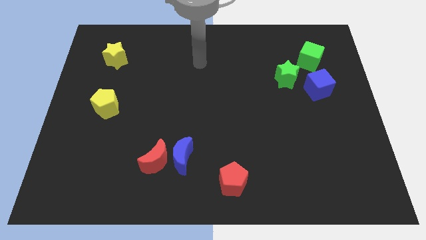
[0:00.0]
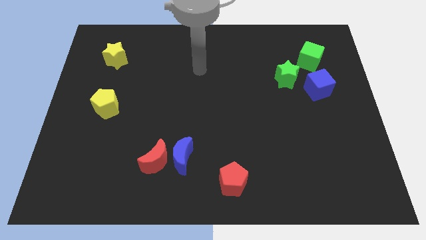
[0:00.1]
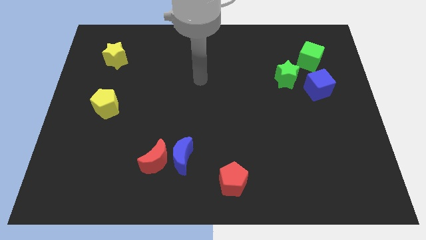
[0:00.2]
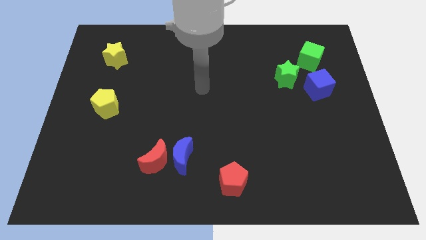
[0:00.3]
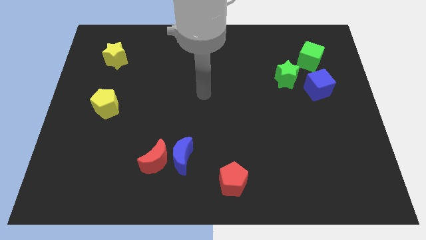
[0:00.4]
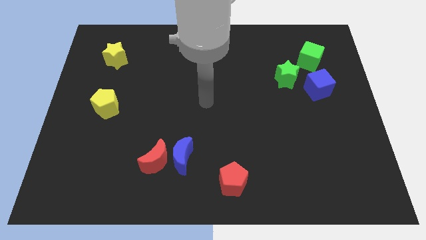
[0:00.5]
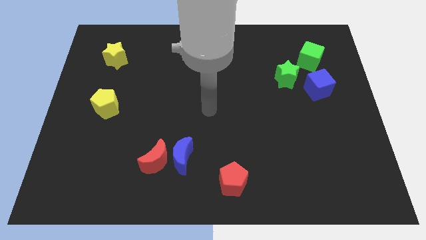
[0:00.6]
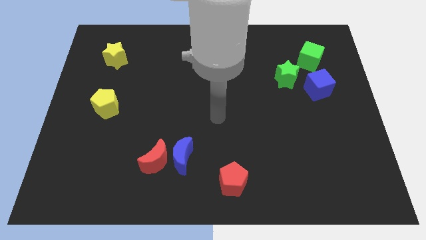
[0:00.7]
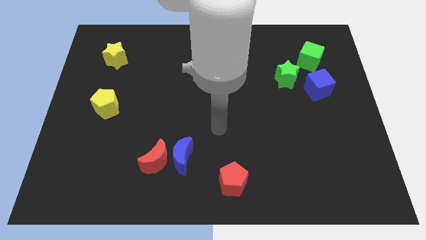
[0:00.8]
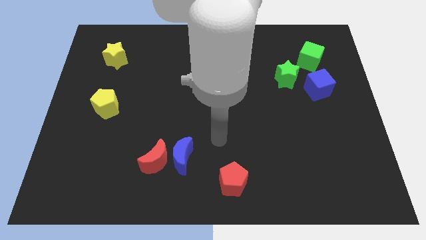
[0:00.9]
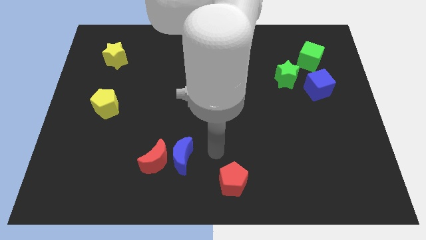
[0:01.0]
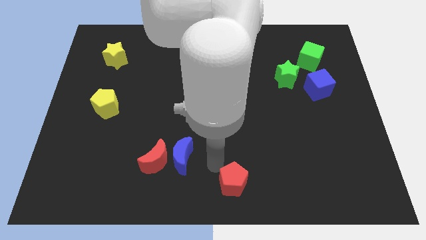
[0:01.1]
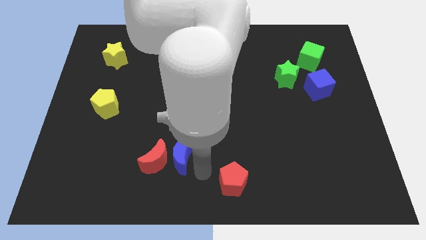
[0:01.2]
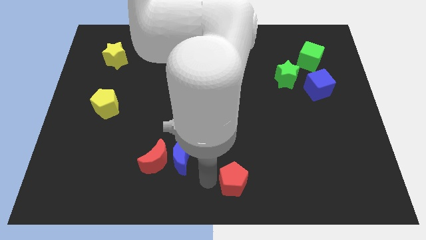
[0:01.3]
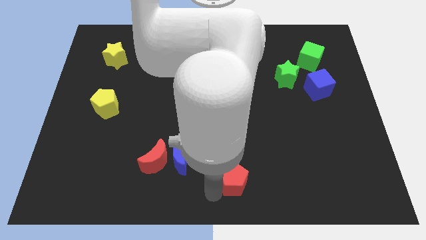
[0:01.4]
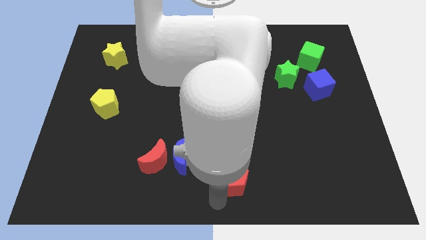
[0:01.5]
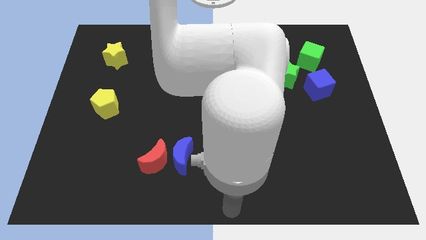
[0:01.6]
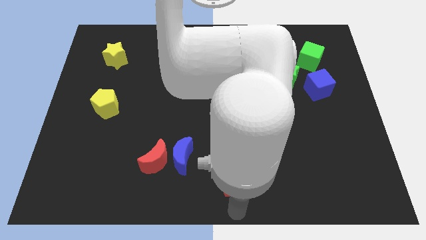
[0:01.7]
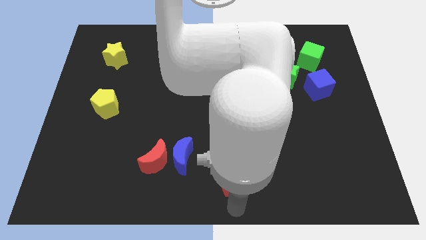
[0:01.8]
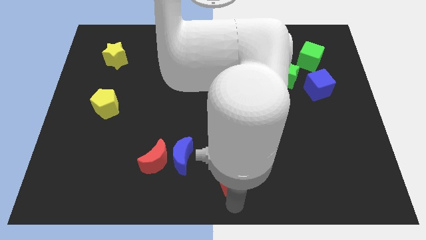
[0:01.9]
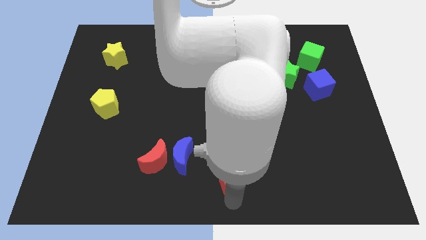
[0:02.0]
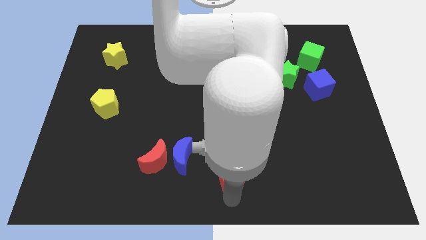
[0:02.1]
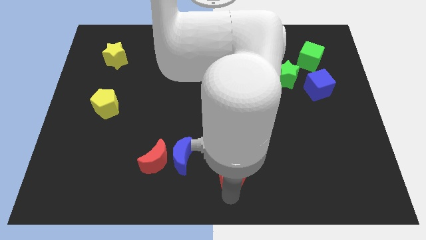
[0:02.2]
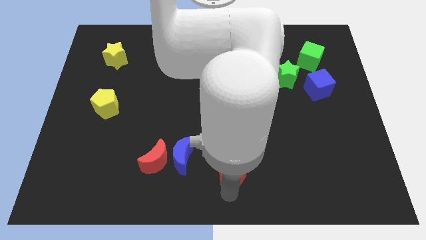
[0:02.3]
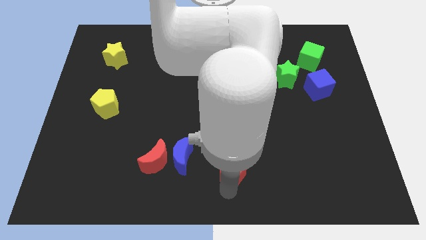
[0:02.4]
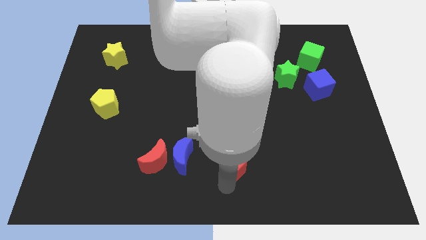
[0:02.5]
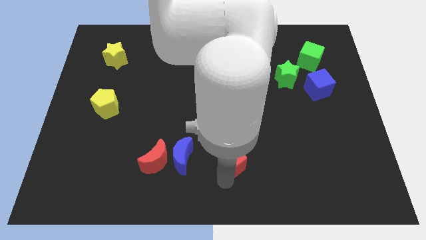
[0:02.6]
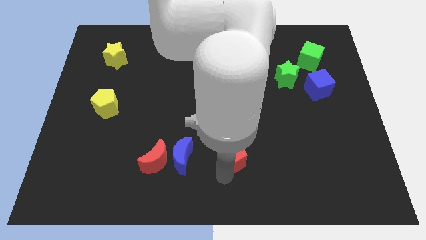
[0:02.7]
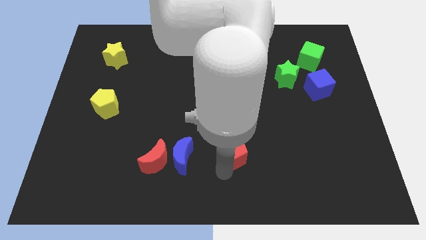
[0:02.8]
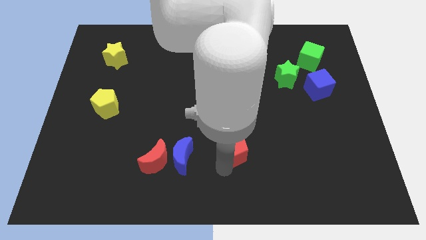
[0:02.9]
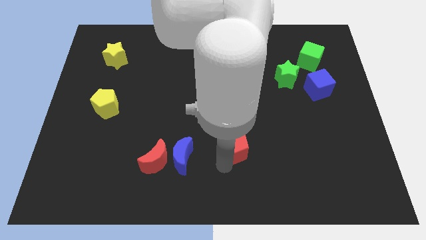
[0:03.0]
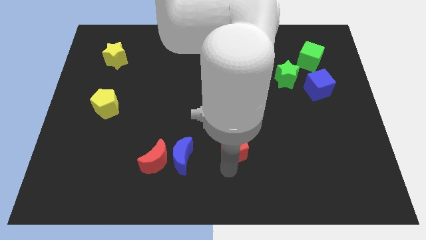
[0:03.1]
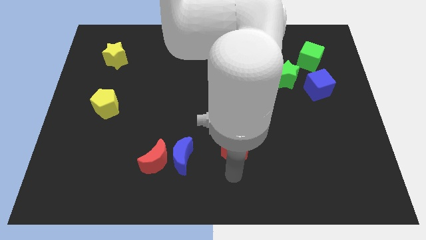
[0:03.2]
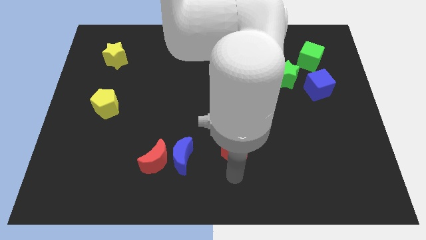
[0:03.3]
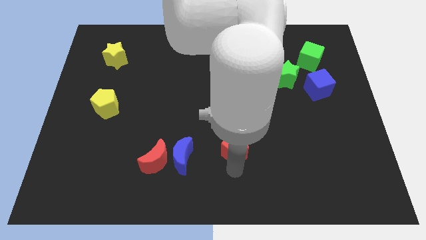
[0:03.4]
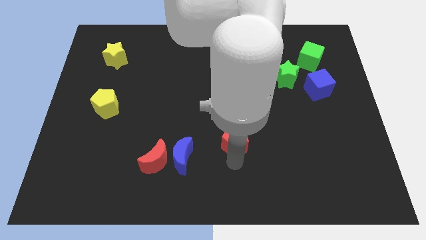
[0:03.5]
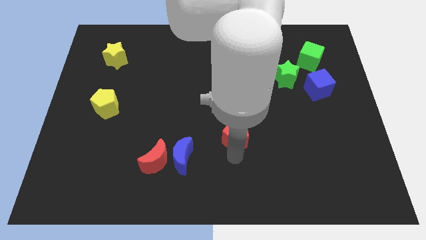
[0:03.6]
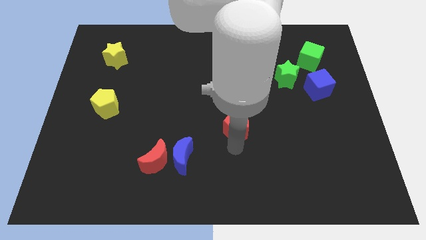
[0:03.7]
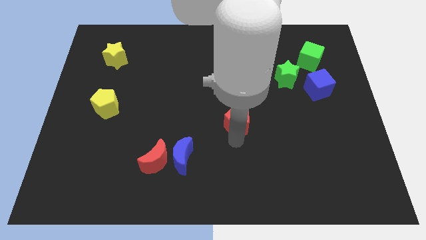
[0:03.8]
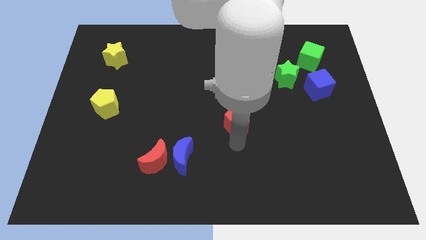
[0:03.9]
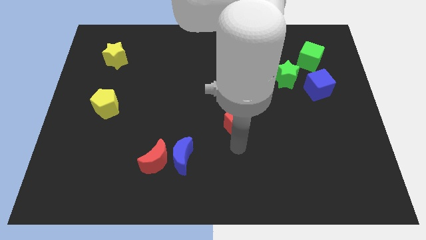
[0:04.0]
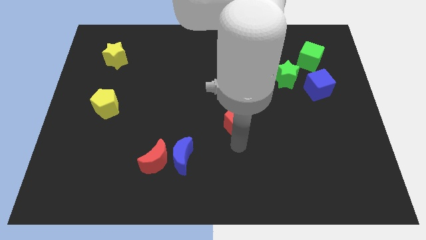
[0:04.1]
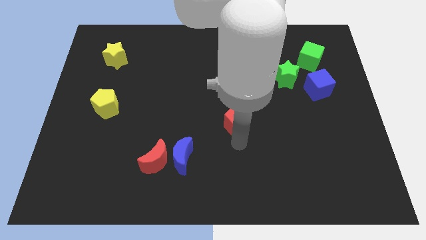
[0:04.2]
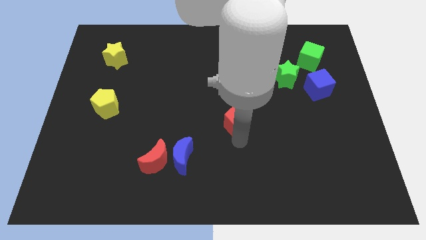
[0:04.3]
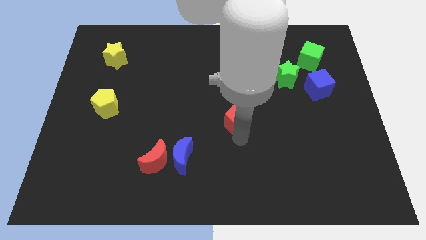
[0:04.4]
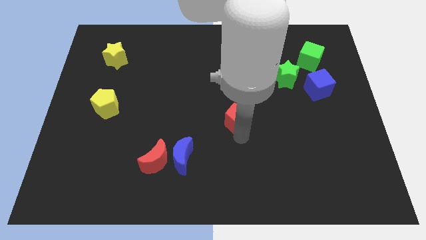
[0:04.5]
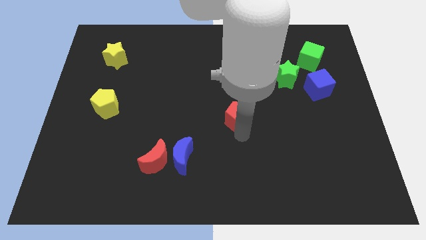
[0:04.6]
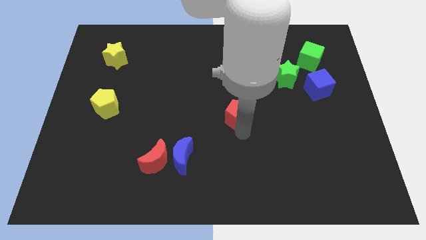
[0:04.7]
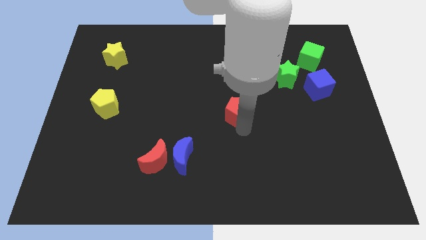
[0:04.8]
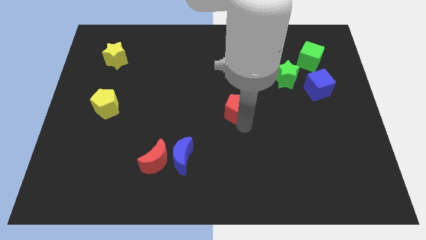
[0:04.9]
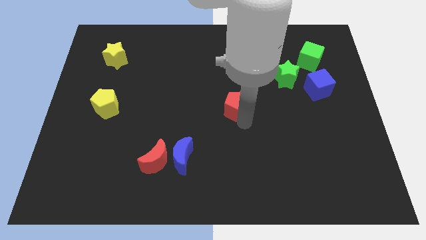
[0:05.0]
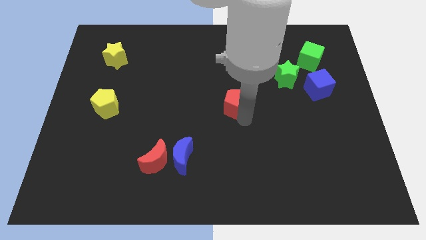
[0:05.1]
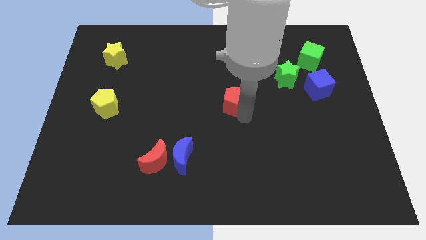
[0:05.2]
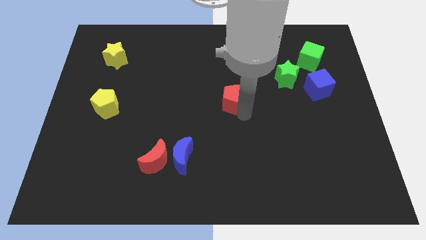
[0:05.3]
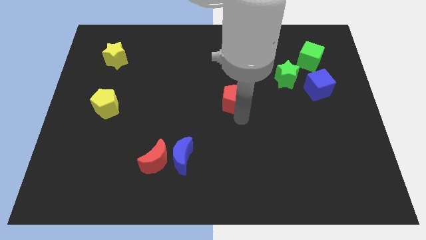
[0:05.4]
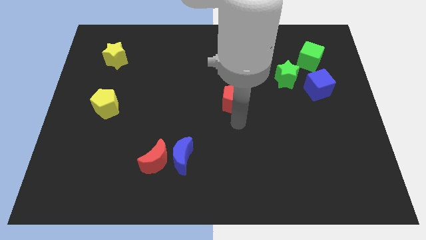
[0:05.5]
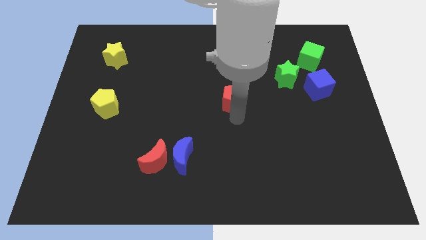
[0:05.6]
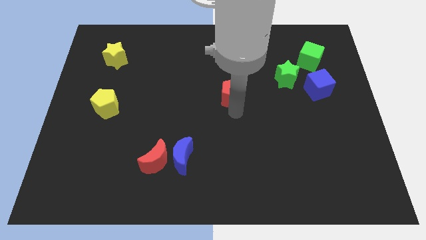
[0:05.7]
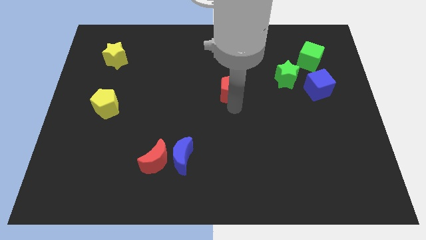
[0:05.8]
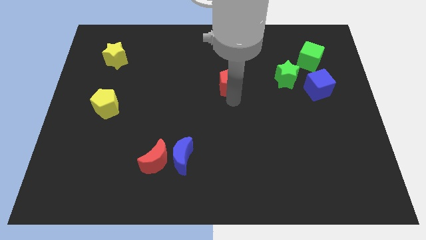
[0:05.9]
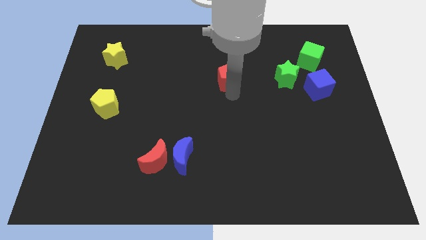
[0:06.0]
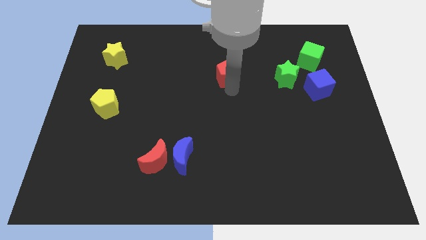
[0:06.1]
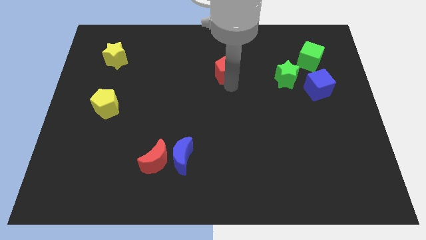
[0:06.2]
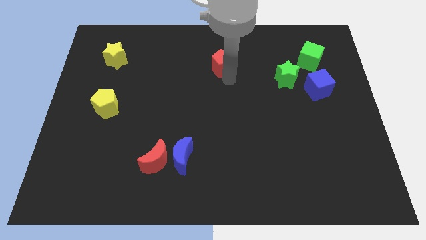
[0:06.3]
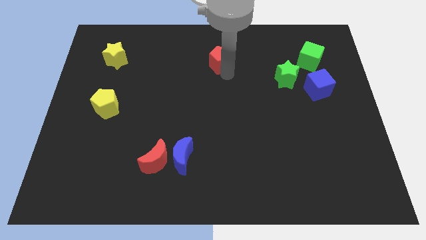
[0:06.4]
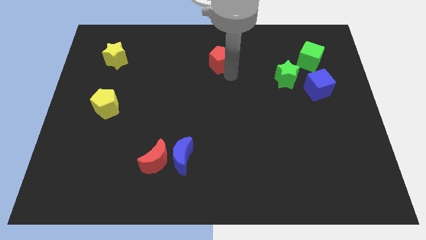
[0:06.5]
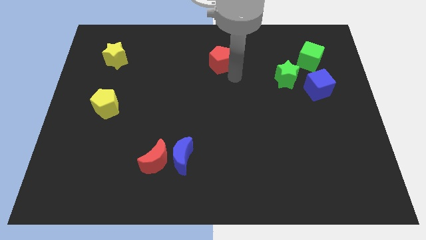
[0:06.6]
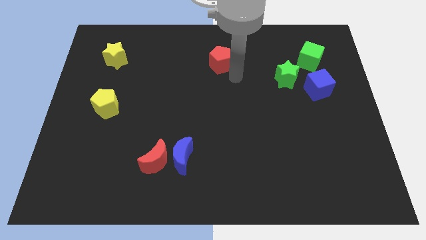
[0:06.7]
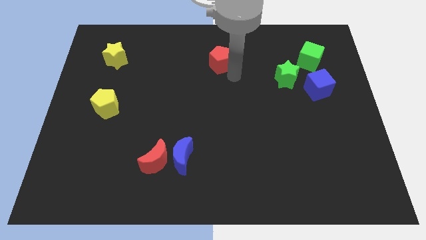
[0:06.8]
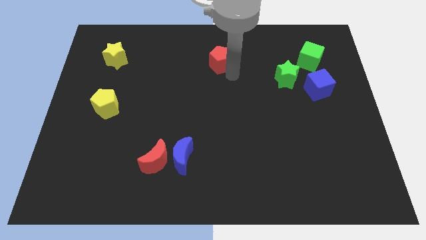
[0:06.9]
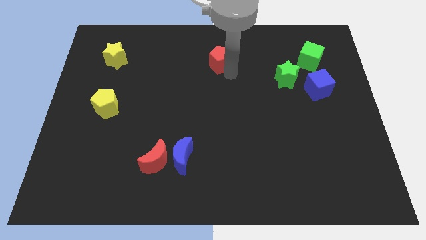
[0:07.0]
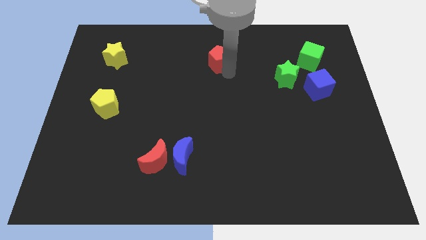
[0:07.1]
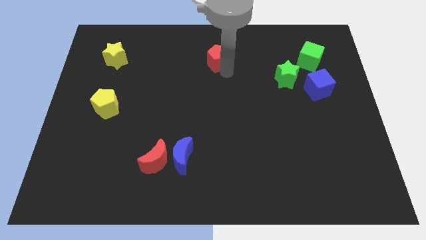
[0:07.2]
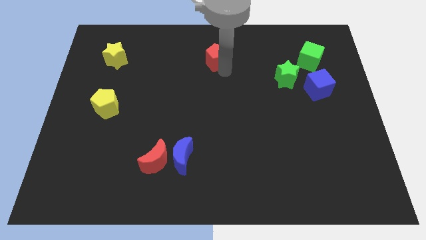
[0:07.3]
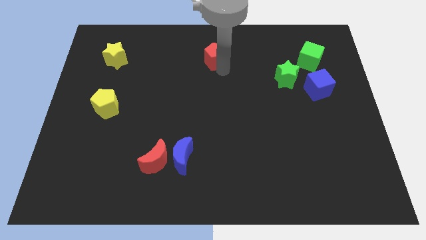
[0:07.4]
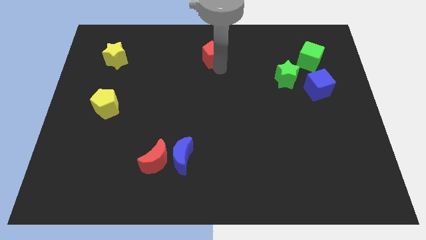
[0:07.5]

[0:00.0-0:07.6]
put the red pentagon to the towards your base
